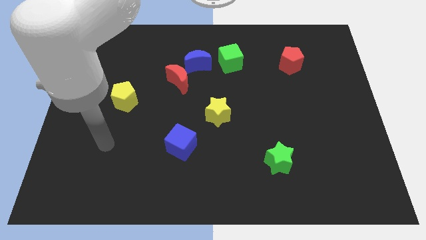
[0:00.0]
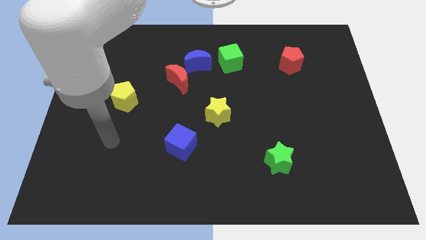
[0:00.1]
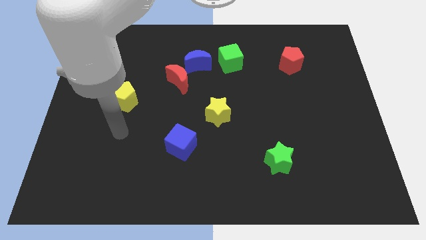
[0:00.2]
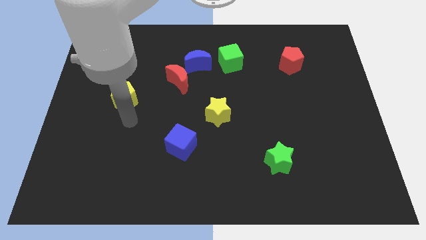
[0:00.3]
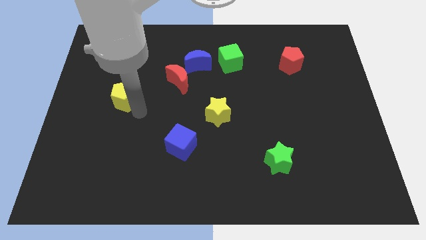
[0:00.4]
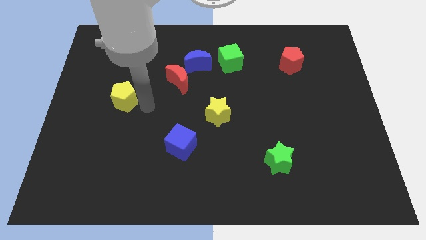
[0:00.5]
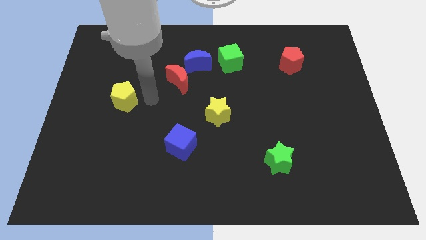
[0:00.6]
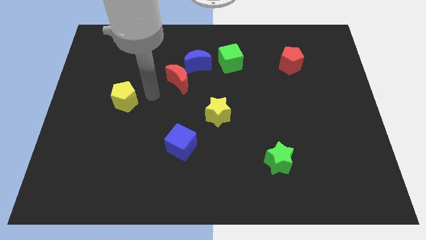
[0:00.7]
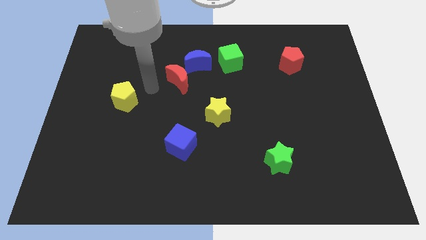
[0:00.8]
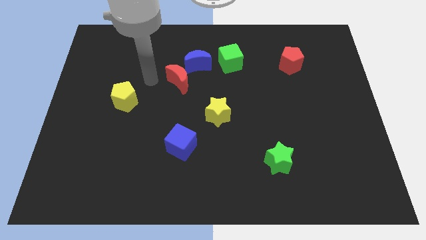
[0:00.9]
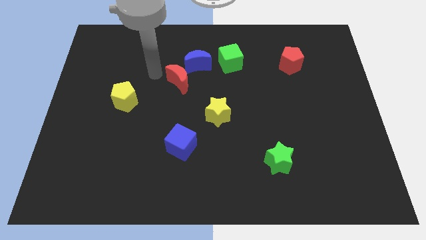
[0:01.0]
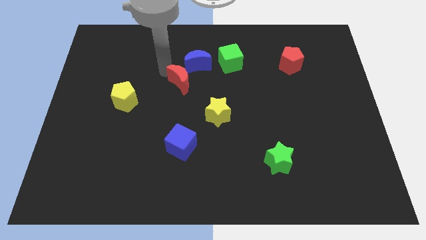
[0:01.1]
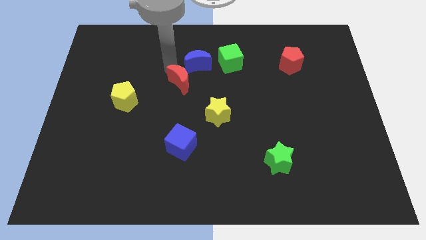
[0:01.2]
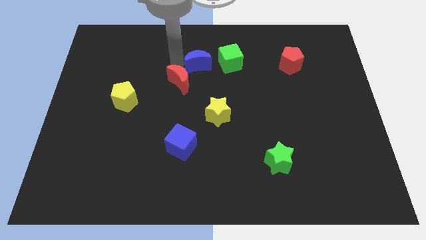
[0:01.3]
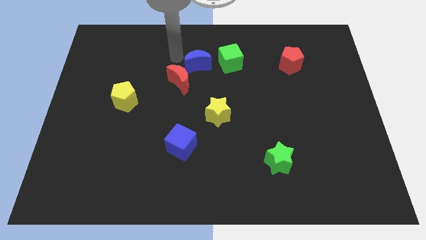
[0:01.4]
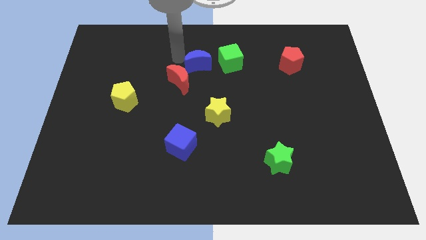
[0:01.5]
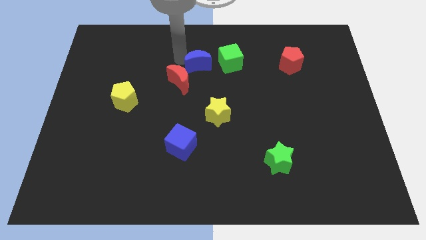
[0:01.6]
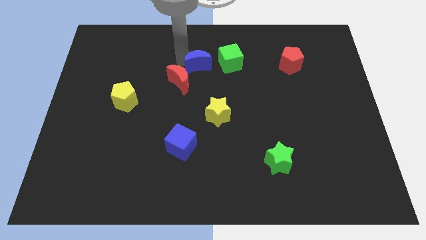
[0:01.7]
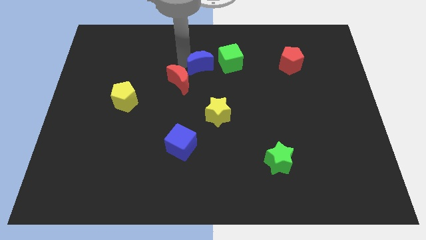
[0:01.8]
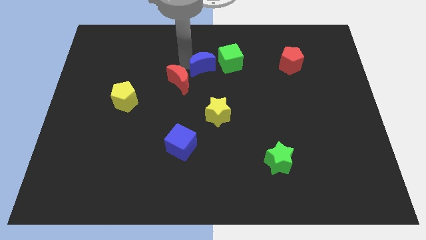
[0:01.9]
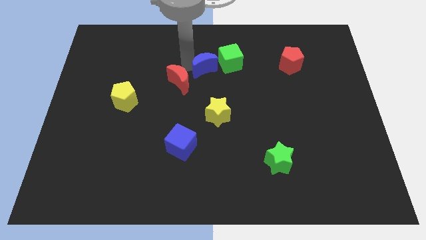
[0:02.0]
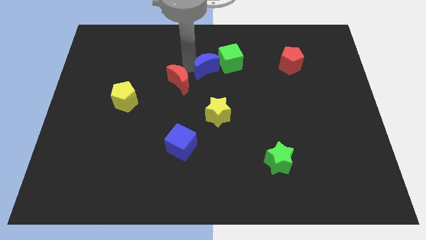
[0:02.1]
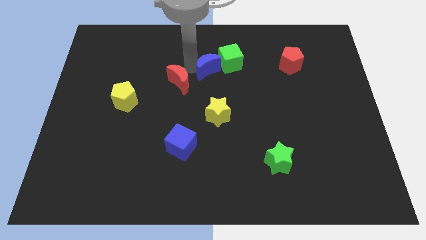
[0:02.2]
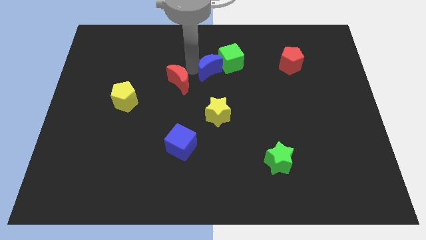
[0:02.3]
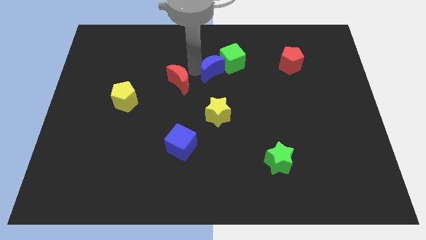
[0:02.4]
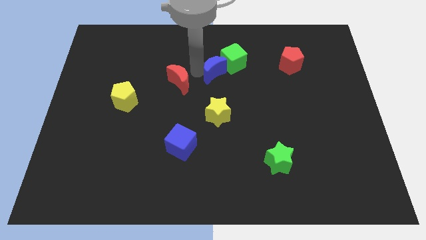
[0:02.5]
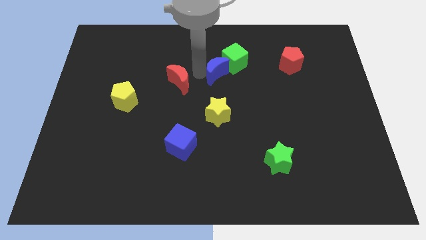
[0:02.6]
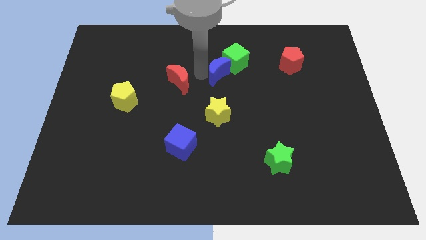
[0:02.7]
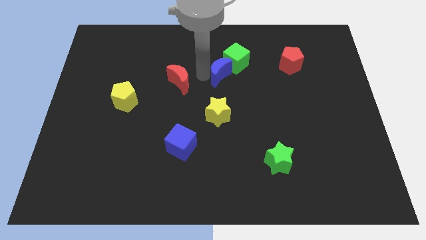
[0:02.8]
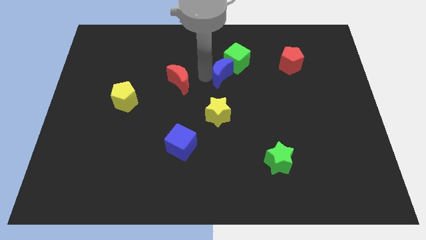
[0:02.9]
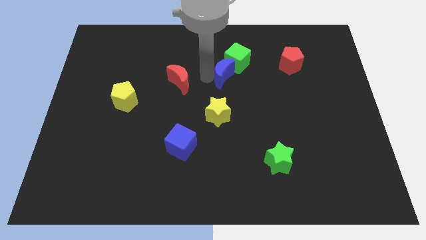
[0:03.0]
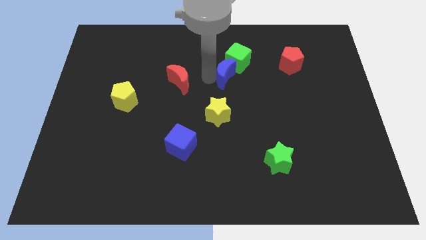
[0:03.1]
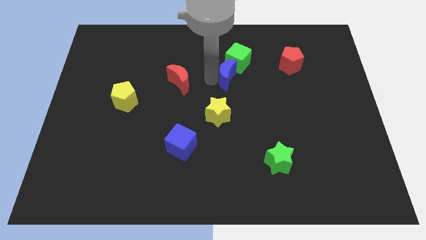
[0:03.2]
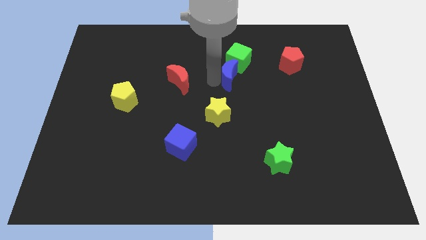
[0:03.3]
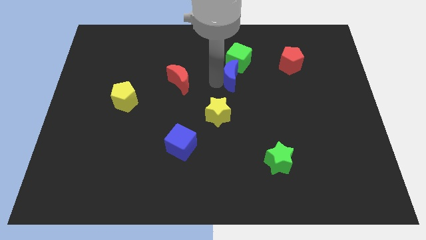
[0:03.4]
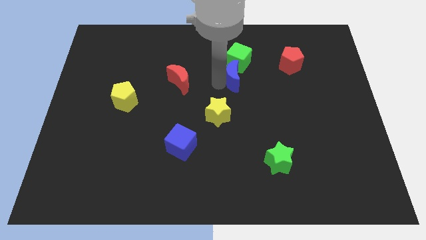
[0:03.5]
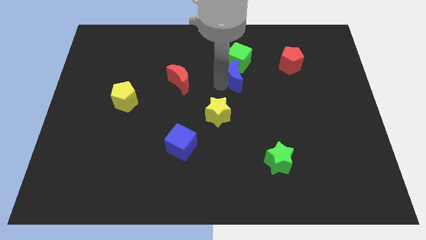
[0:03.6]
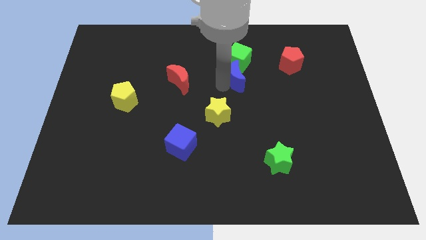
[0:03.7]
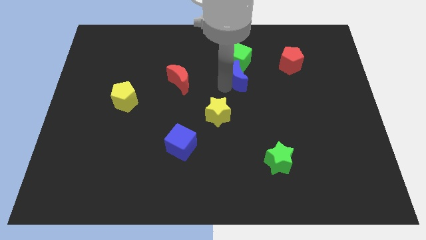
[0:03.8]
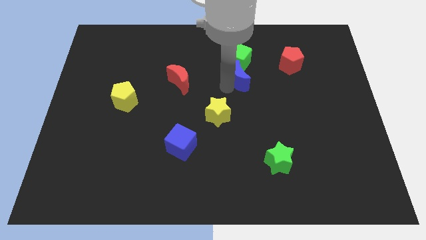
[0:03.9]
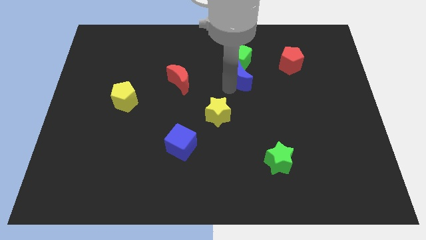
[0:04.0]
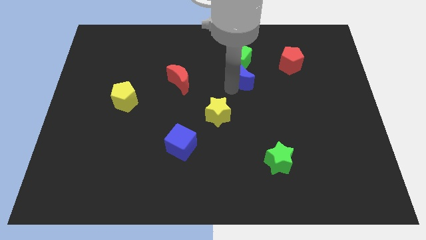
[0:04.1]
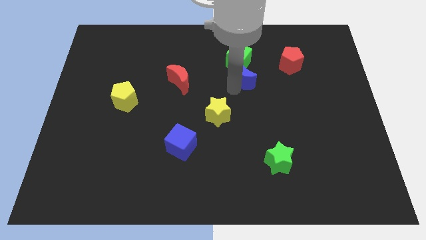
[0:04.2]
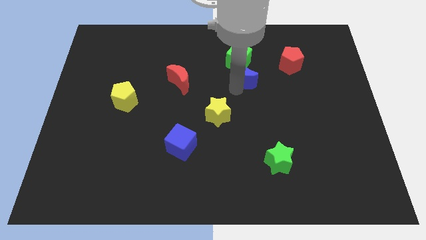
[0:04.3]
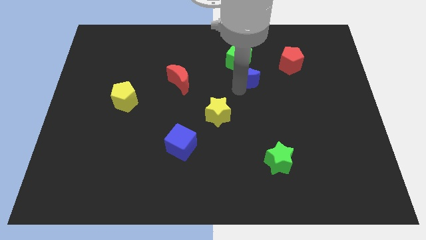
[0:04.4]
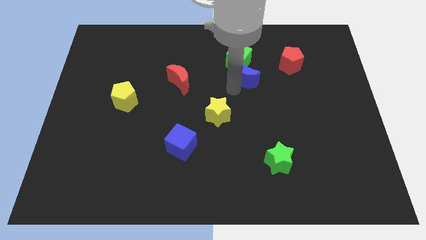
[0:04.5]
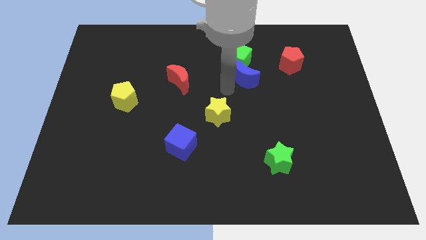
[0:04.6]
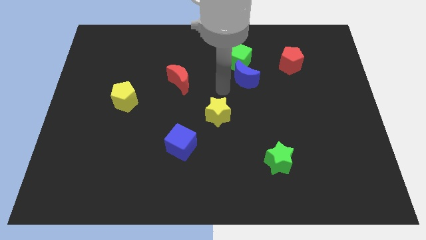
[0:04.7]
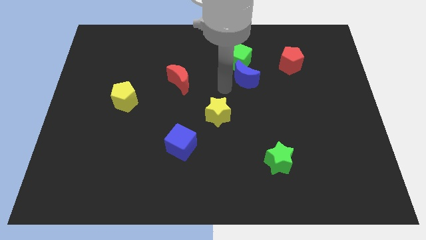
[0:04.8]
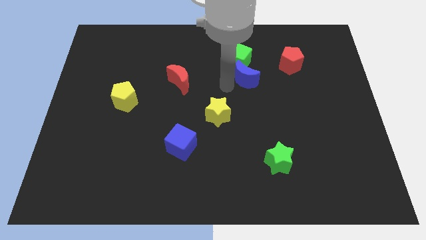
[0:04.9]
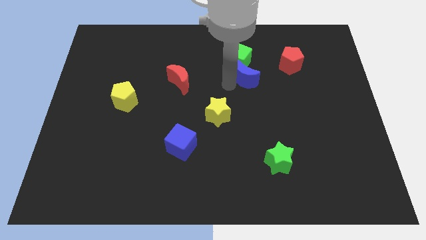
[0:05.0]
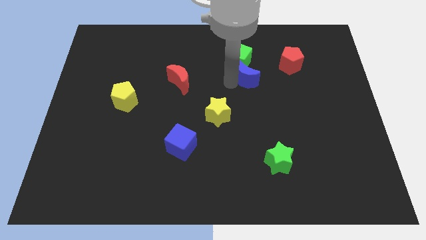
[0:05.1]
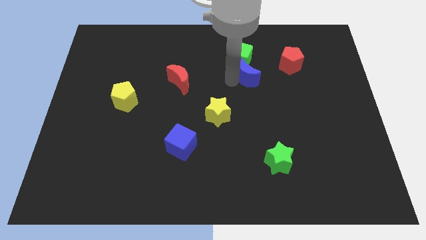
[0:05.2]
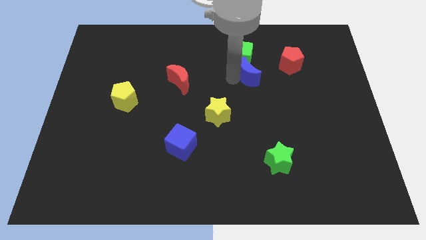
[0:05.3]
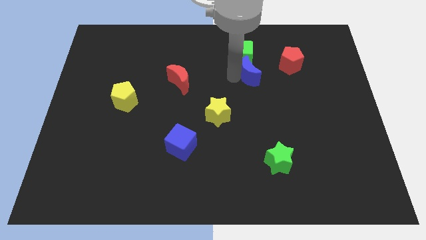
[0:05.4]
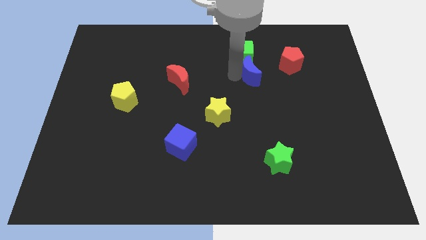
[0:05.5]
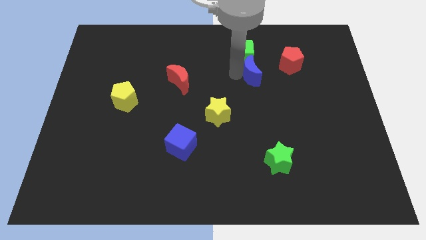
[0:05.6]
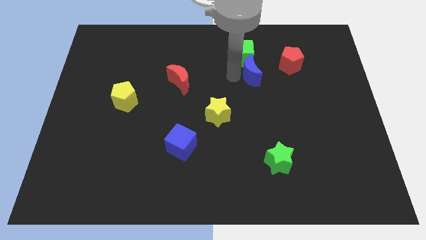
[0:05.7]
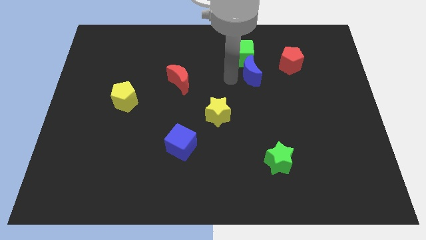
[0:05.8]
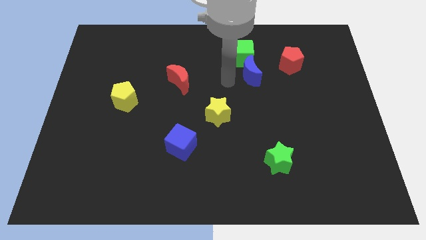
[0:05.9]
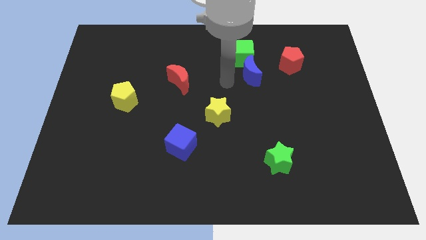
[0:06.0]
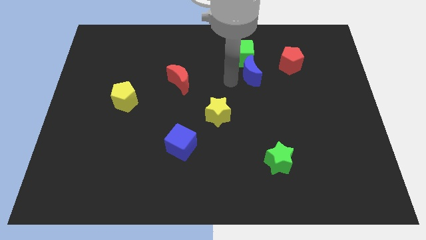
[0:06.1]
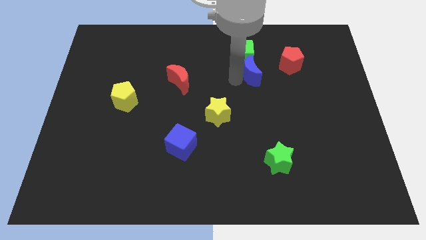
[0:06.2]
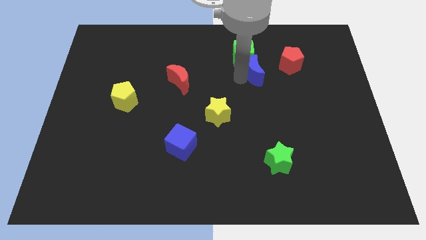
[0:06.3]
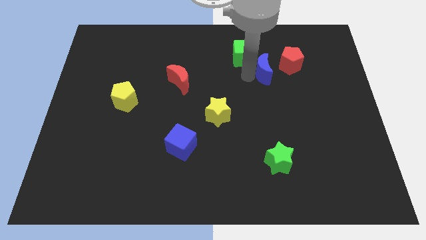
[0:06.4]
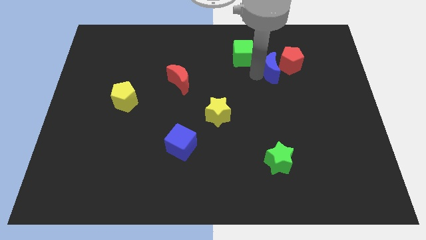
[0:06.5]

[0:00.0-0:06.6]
push the blue moon close to the red pentagon

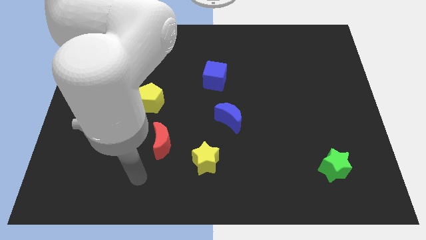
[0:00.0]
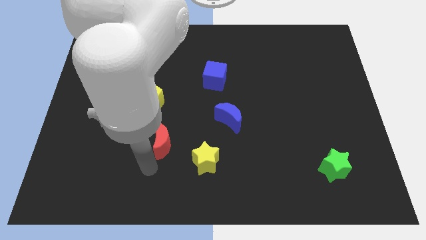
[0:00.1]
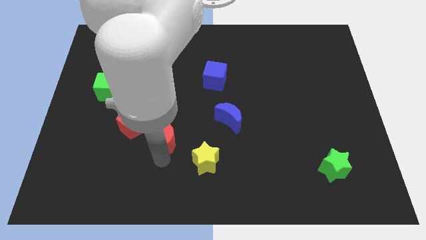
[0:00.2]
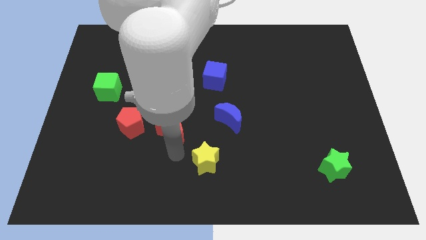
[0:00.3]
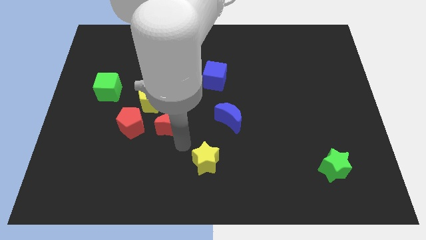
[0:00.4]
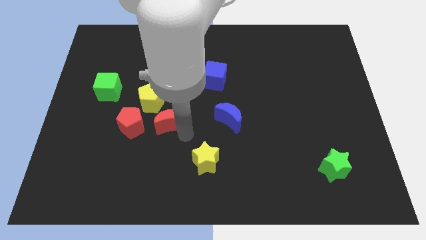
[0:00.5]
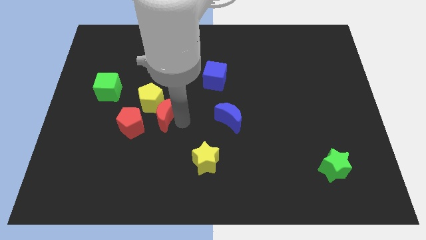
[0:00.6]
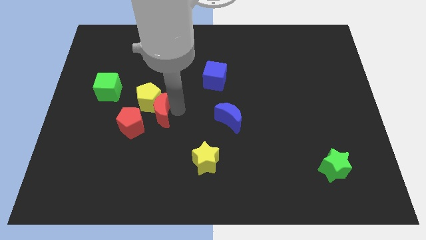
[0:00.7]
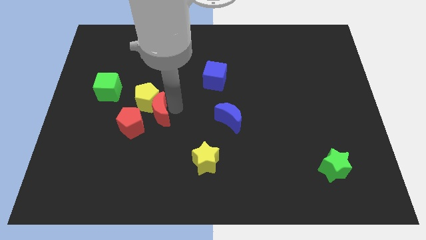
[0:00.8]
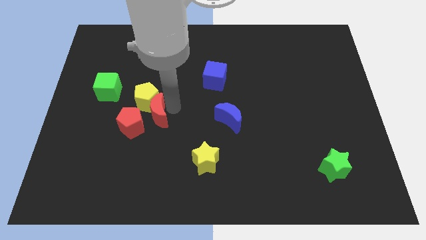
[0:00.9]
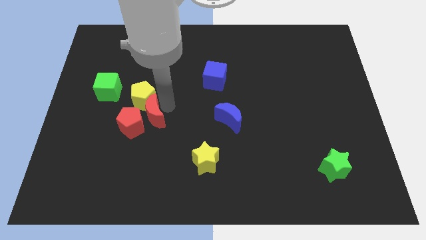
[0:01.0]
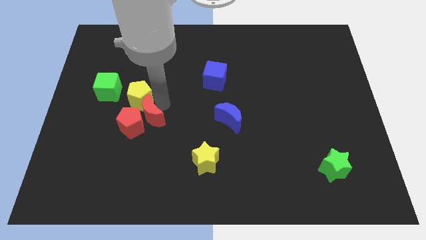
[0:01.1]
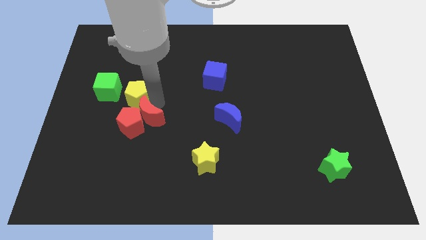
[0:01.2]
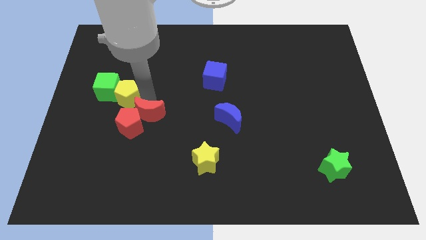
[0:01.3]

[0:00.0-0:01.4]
push the yellow pentagon towards the green cube
